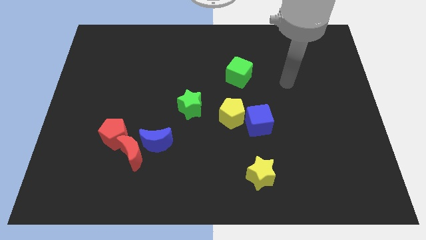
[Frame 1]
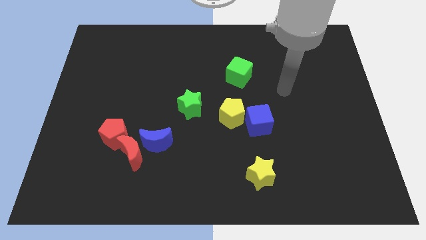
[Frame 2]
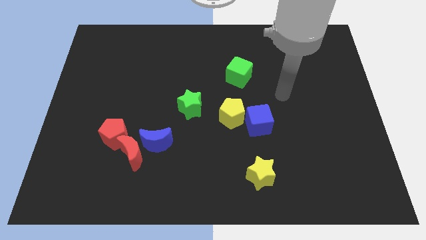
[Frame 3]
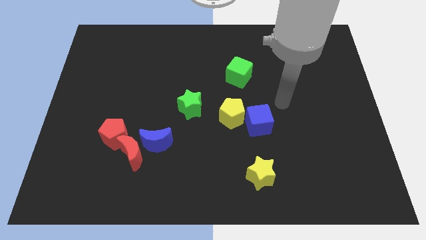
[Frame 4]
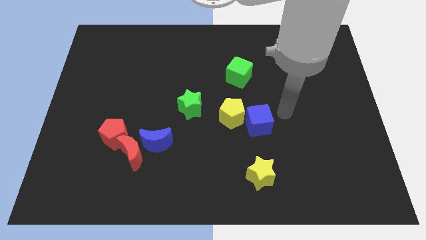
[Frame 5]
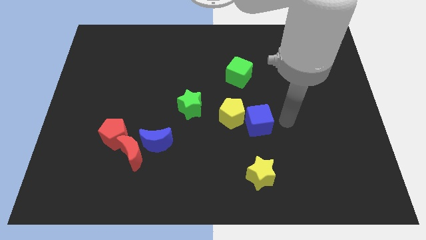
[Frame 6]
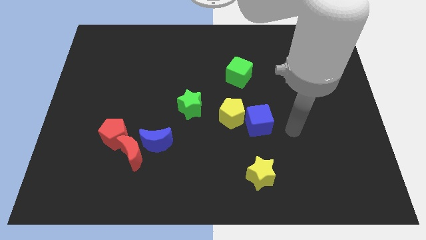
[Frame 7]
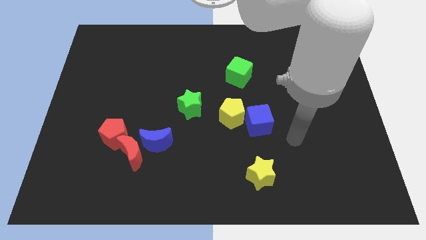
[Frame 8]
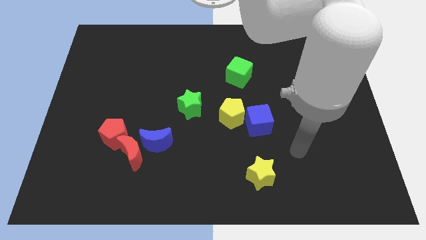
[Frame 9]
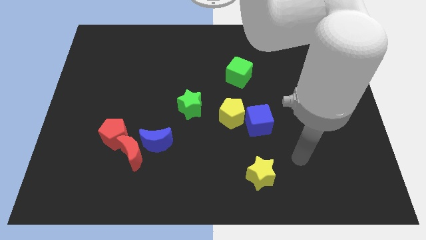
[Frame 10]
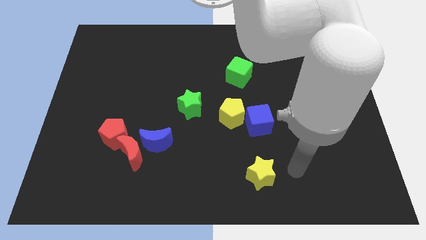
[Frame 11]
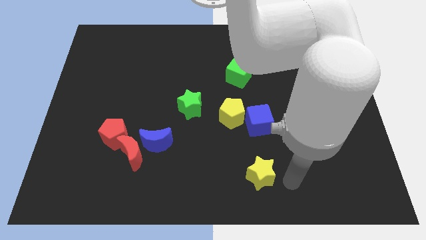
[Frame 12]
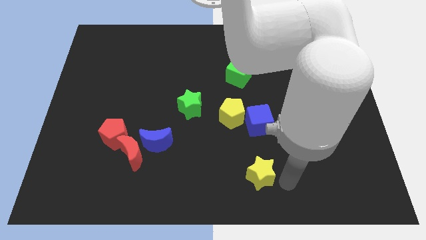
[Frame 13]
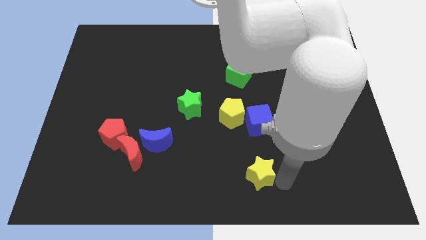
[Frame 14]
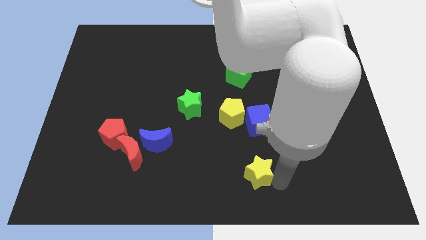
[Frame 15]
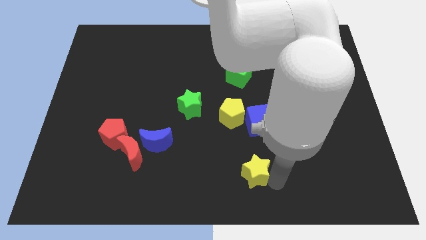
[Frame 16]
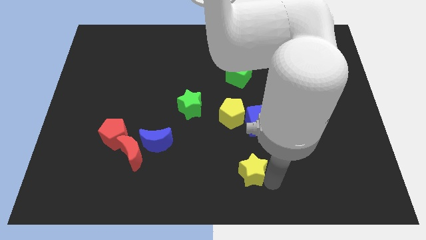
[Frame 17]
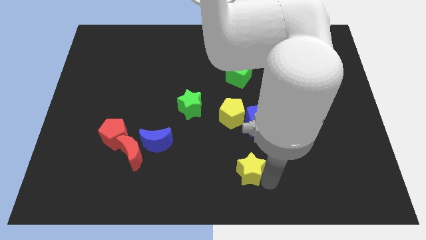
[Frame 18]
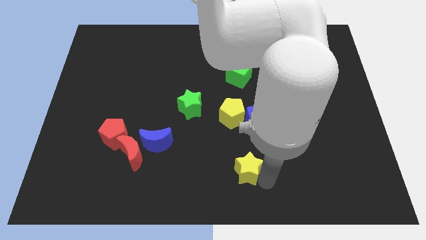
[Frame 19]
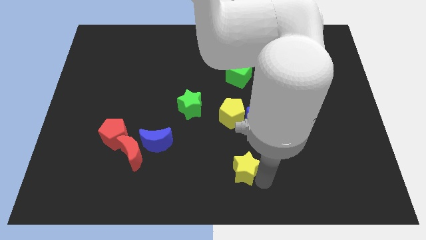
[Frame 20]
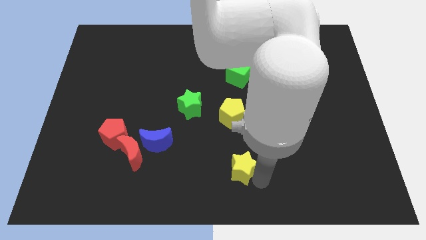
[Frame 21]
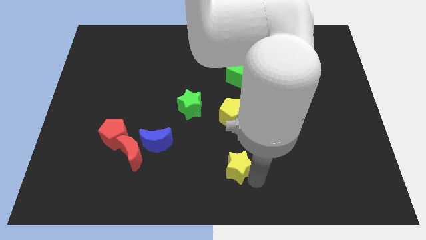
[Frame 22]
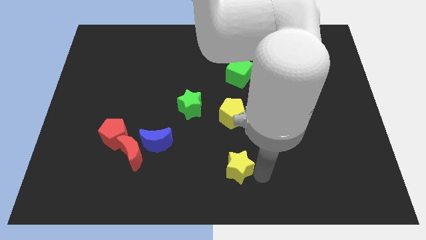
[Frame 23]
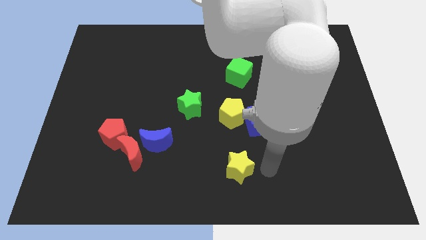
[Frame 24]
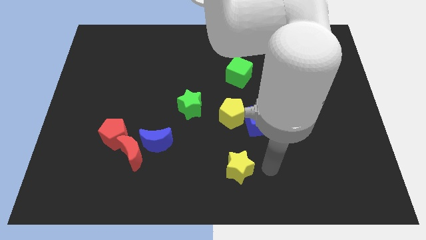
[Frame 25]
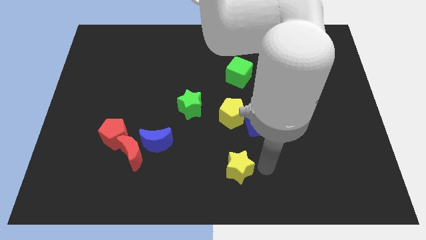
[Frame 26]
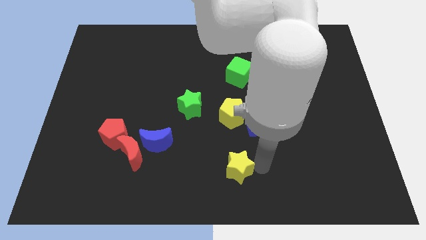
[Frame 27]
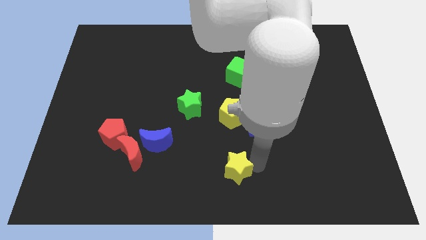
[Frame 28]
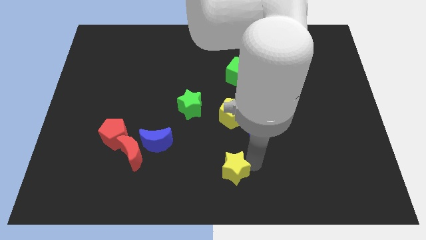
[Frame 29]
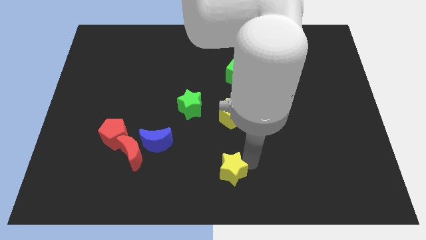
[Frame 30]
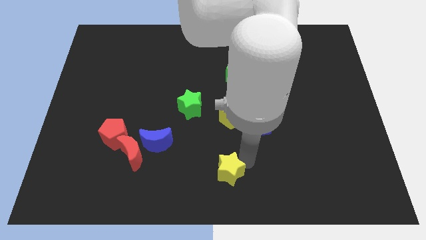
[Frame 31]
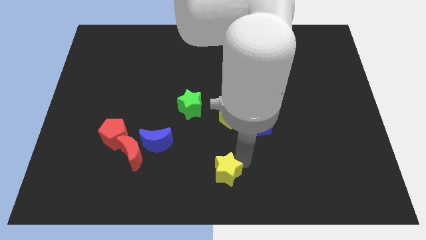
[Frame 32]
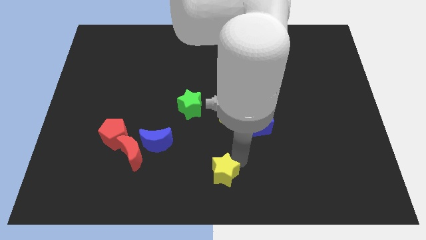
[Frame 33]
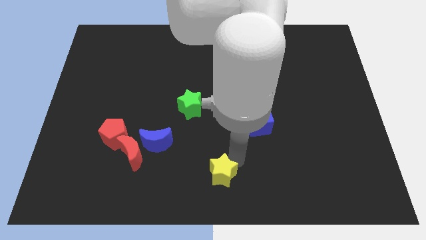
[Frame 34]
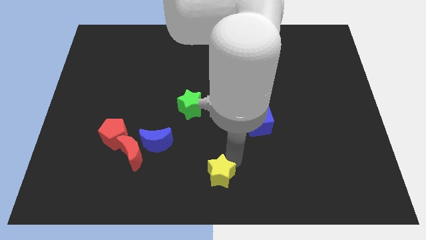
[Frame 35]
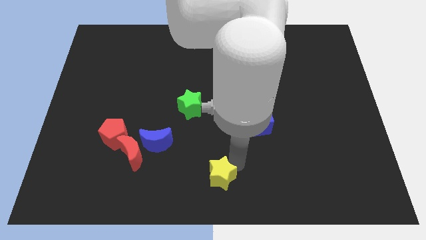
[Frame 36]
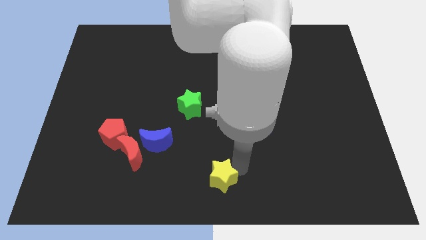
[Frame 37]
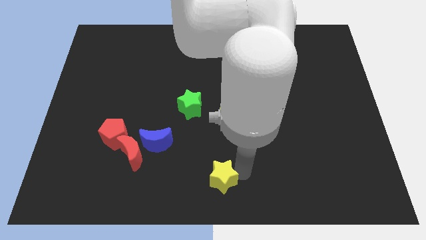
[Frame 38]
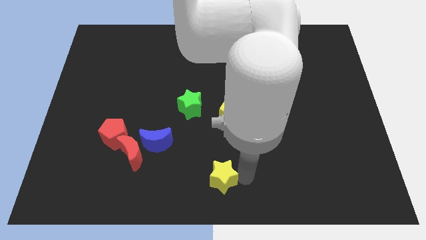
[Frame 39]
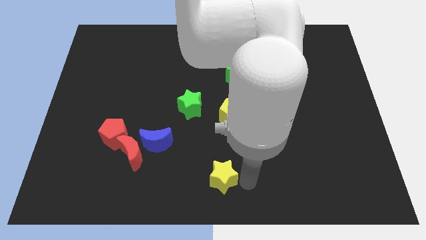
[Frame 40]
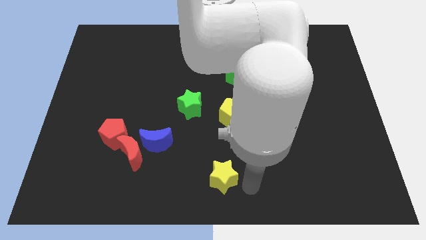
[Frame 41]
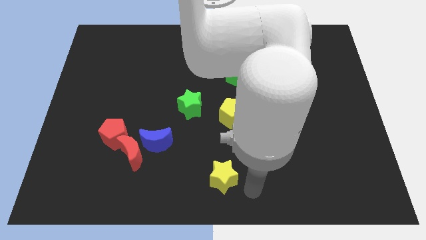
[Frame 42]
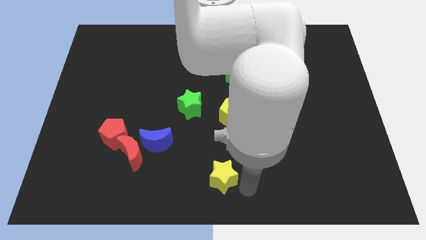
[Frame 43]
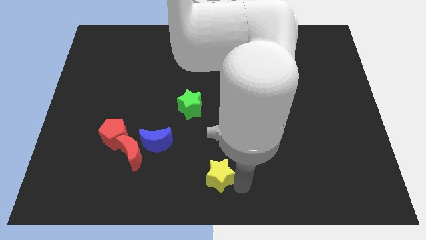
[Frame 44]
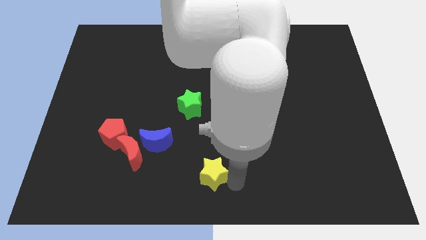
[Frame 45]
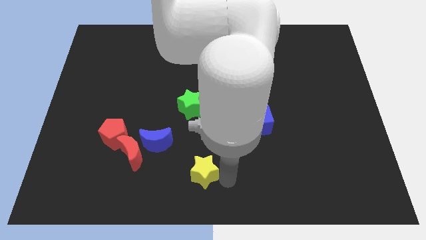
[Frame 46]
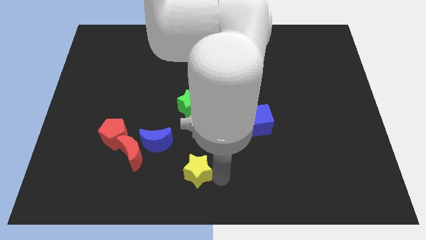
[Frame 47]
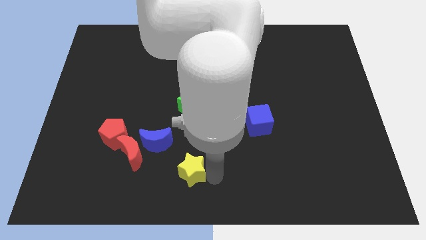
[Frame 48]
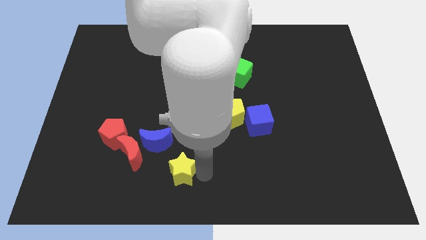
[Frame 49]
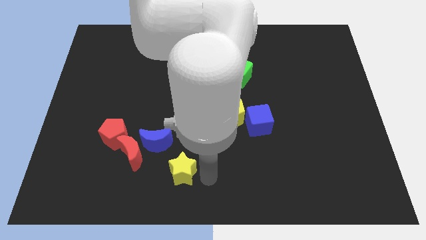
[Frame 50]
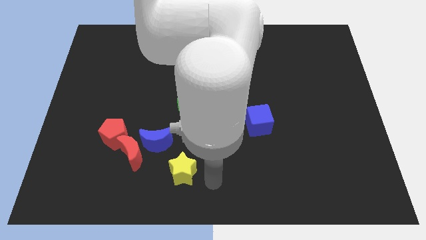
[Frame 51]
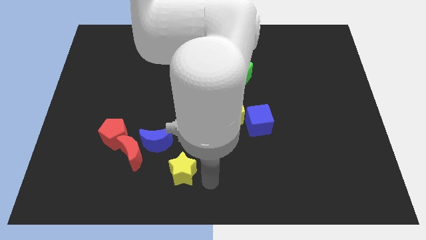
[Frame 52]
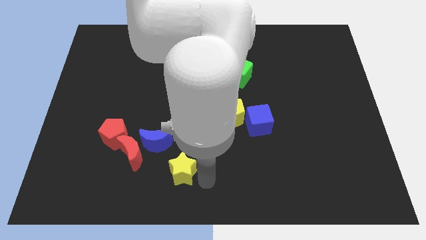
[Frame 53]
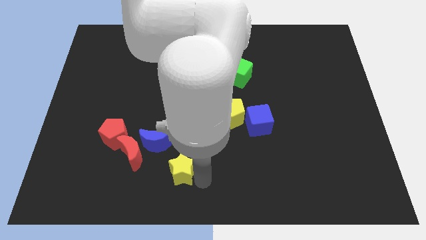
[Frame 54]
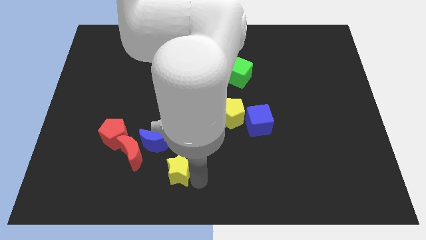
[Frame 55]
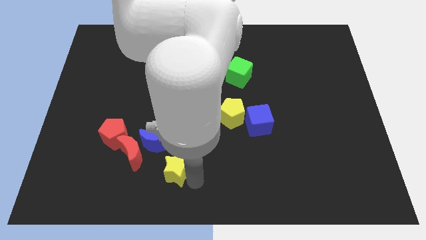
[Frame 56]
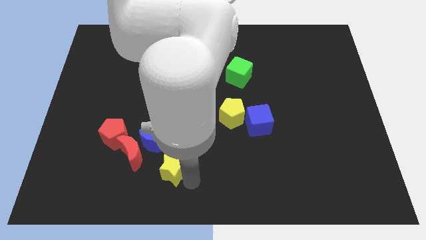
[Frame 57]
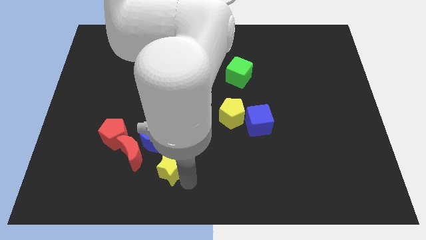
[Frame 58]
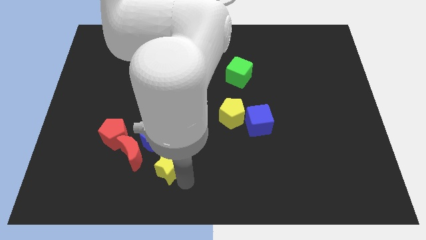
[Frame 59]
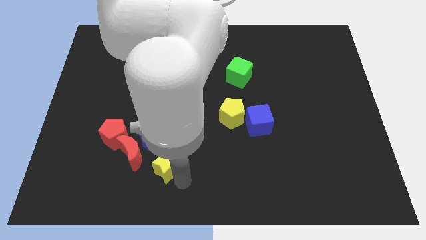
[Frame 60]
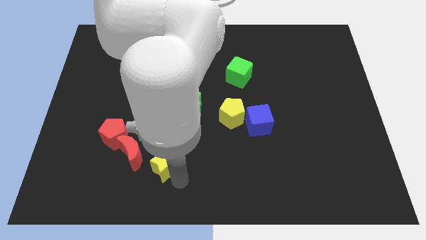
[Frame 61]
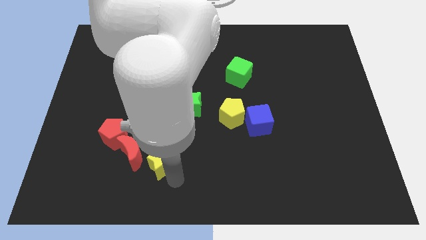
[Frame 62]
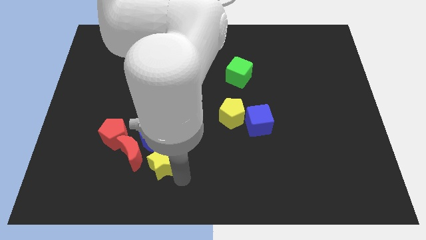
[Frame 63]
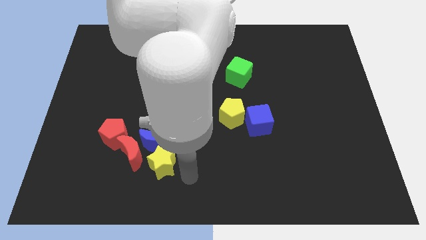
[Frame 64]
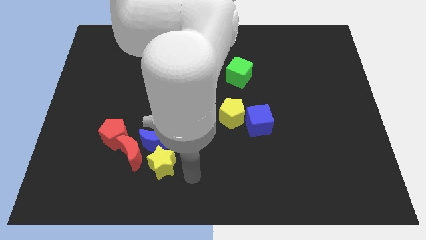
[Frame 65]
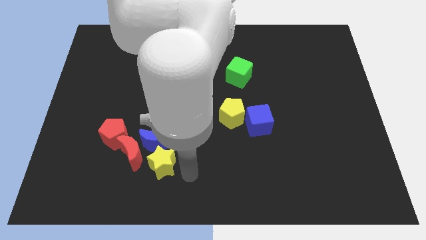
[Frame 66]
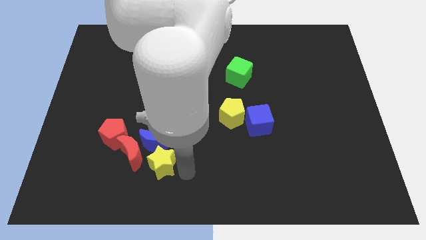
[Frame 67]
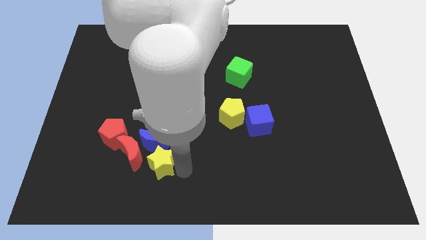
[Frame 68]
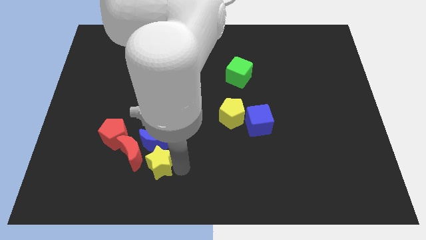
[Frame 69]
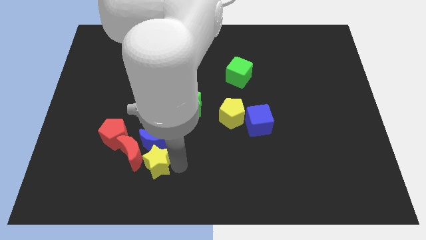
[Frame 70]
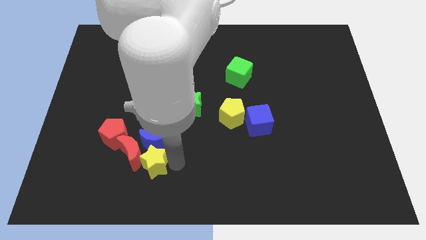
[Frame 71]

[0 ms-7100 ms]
put the yellow star close to the red moon

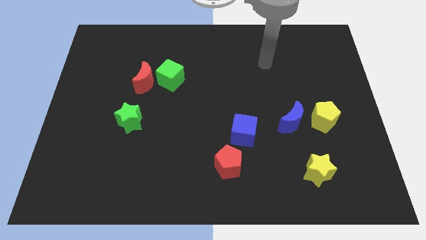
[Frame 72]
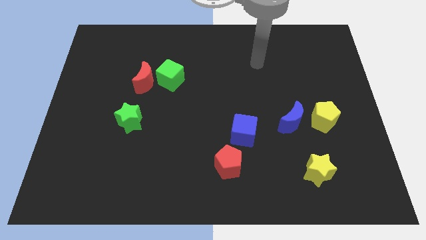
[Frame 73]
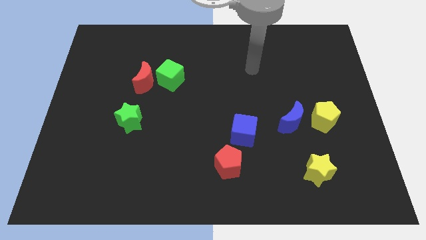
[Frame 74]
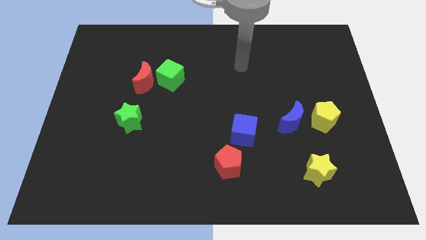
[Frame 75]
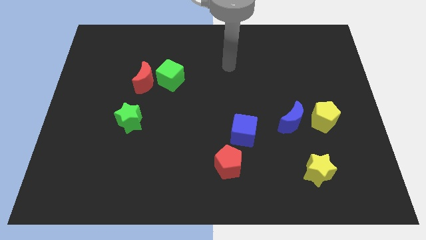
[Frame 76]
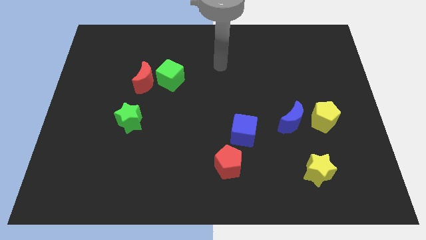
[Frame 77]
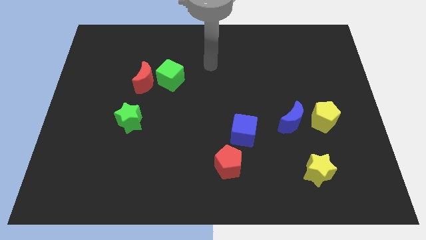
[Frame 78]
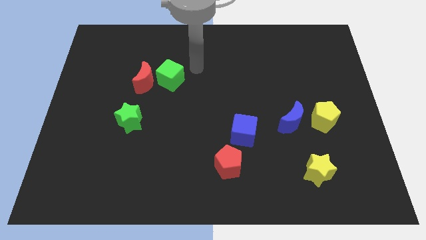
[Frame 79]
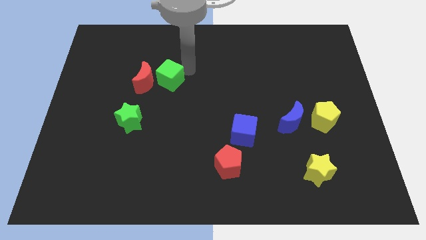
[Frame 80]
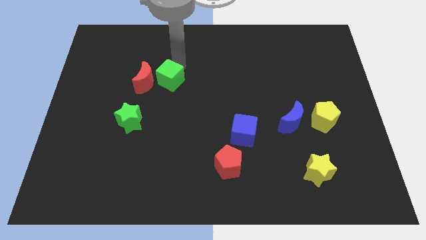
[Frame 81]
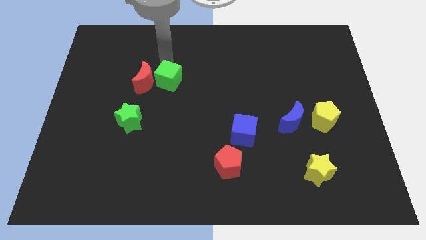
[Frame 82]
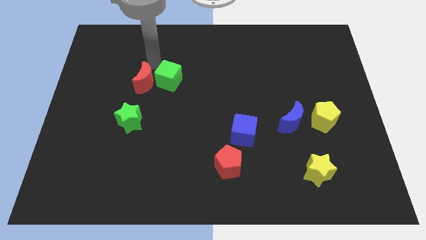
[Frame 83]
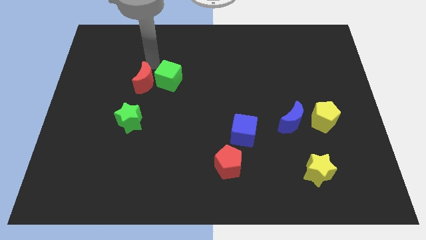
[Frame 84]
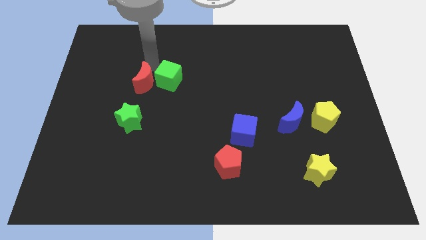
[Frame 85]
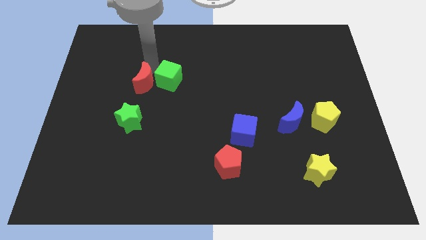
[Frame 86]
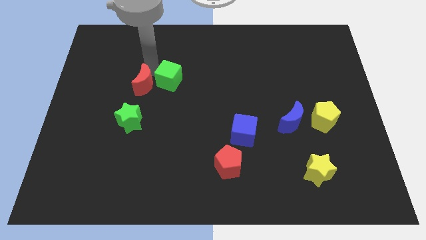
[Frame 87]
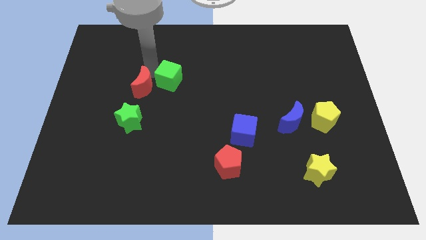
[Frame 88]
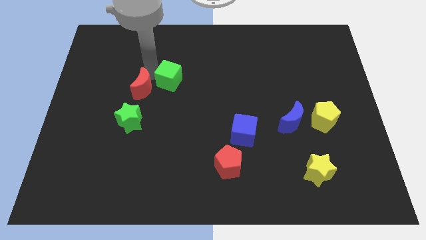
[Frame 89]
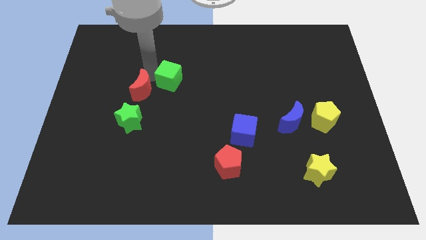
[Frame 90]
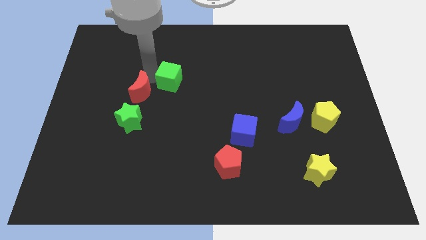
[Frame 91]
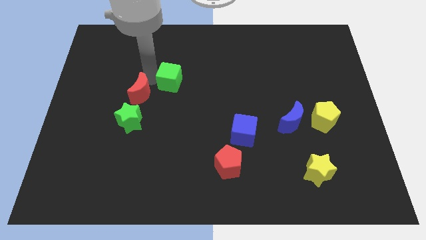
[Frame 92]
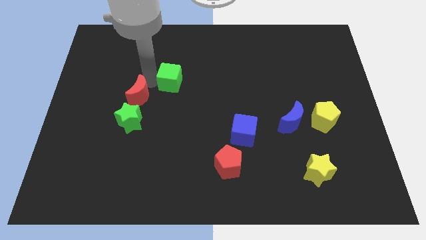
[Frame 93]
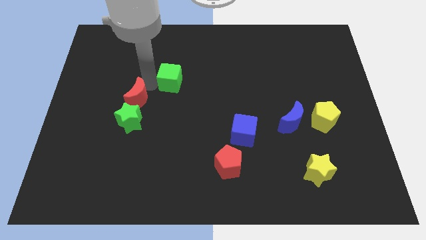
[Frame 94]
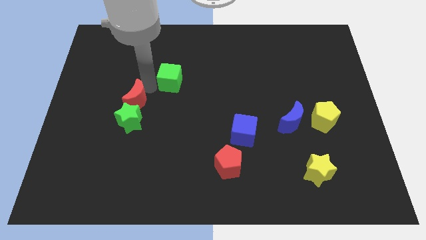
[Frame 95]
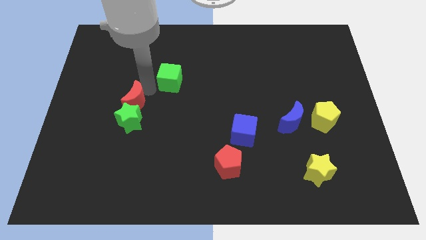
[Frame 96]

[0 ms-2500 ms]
push the red moon next to the green star
